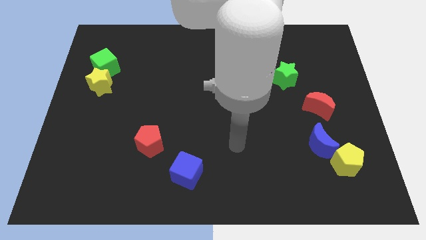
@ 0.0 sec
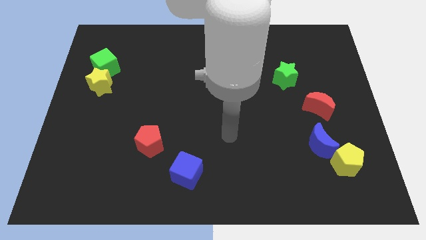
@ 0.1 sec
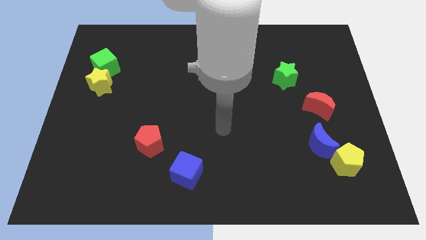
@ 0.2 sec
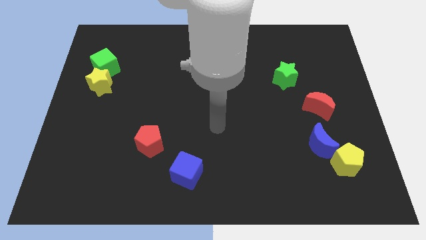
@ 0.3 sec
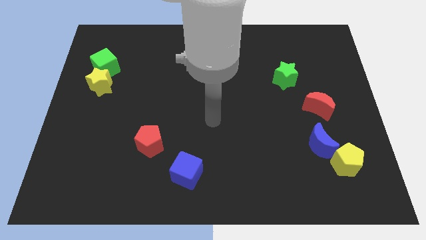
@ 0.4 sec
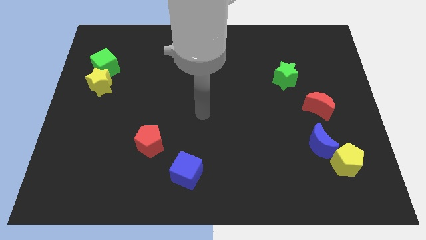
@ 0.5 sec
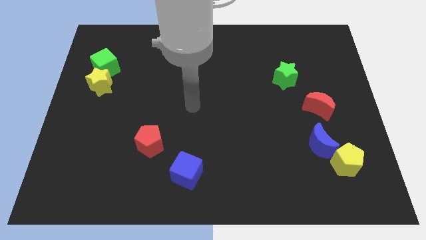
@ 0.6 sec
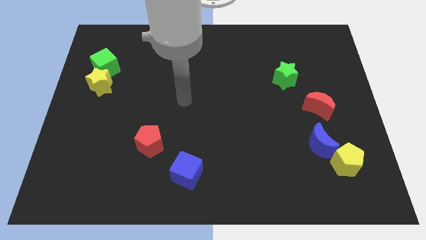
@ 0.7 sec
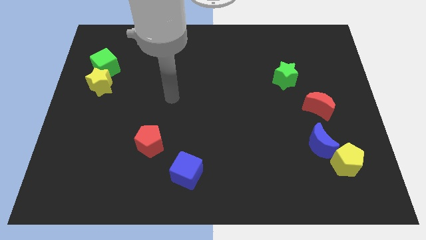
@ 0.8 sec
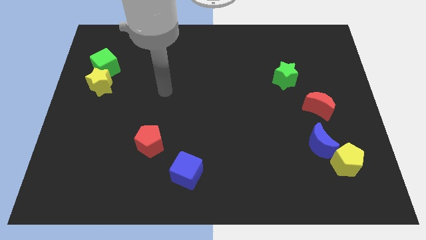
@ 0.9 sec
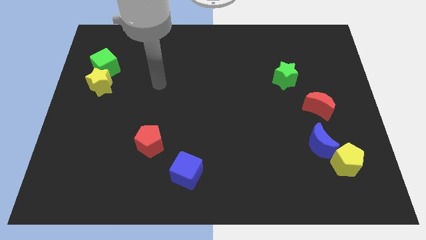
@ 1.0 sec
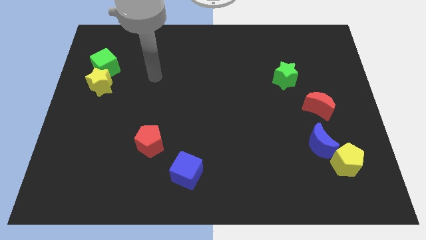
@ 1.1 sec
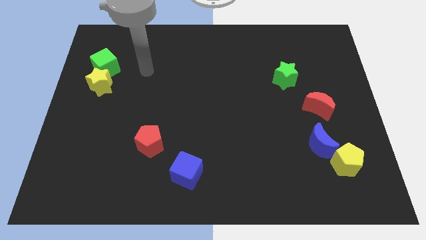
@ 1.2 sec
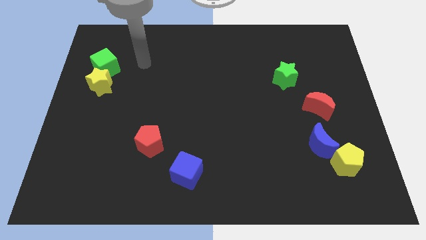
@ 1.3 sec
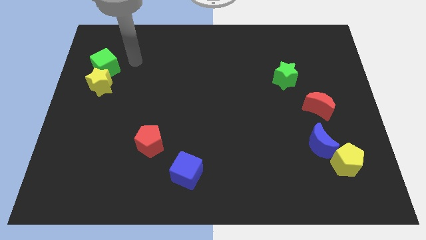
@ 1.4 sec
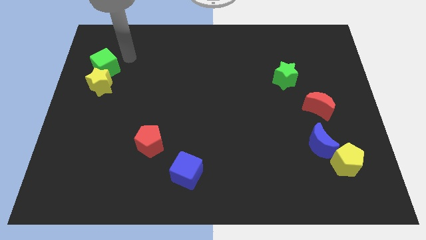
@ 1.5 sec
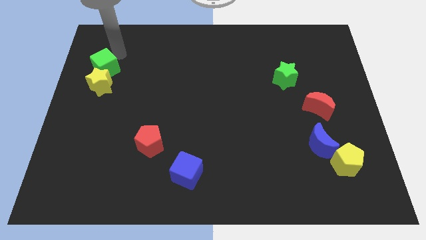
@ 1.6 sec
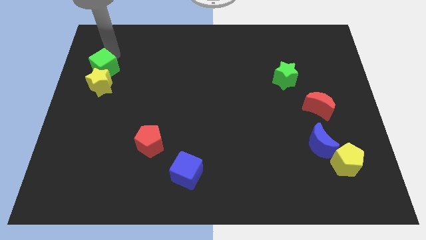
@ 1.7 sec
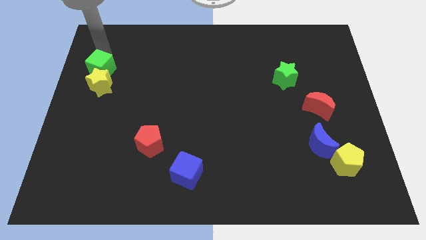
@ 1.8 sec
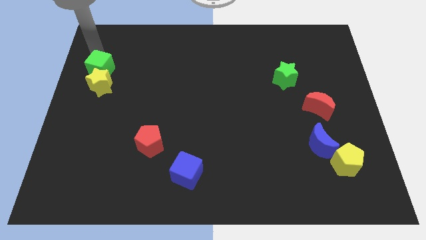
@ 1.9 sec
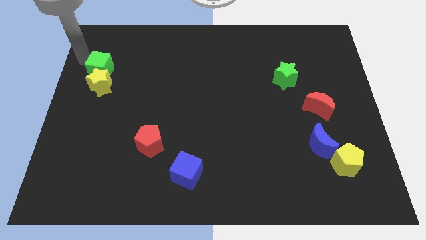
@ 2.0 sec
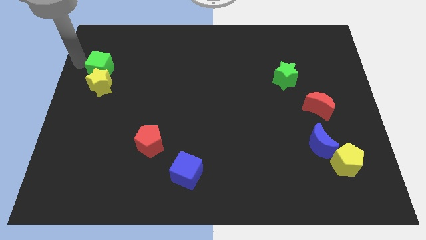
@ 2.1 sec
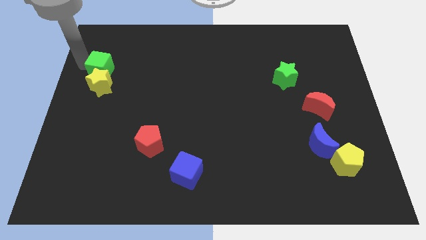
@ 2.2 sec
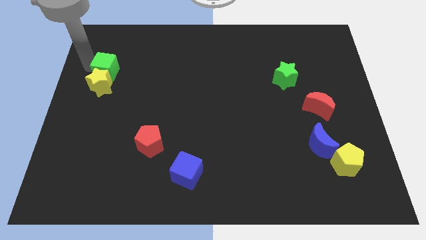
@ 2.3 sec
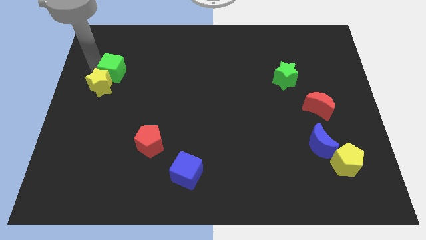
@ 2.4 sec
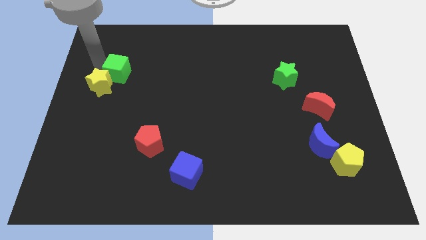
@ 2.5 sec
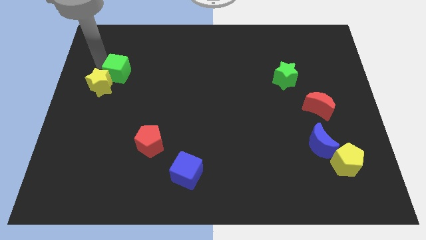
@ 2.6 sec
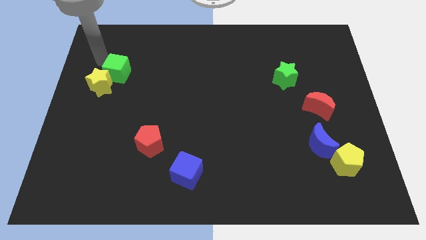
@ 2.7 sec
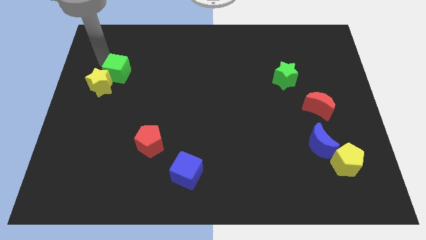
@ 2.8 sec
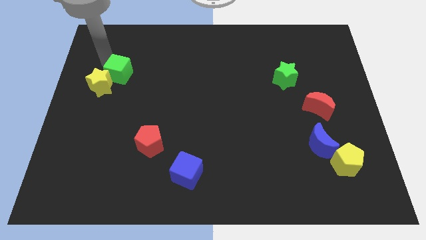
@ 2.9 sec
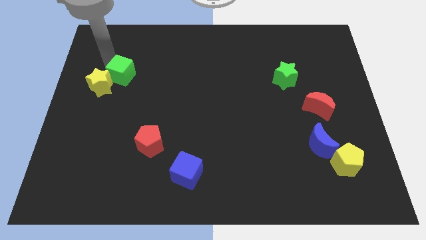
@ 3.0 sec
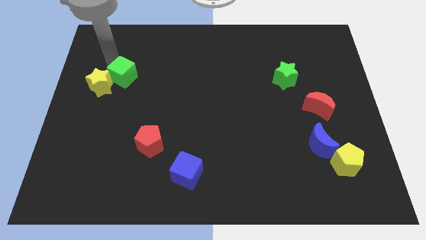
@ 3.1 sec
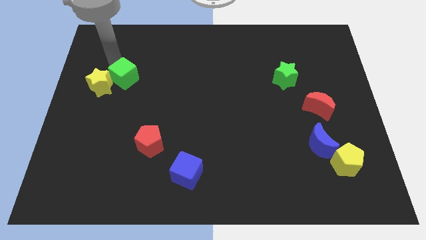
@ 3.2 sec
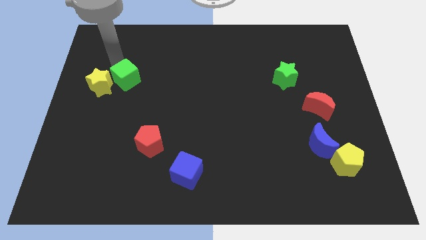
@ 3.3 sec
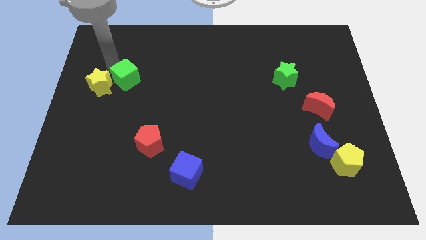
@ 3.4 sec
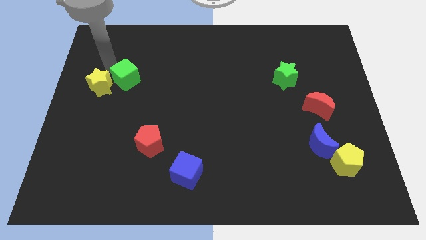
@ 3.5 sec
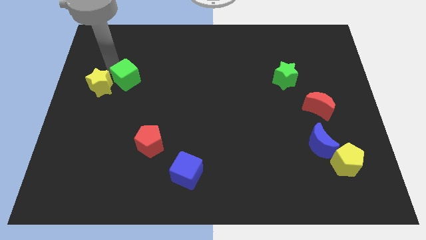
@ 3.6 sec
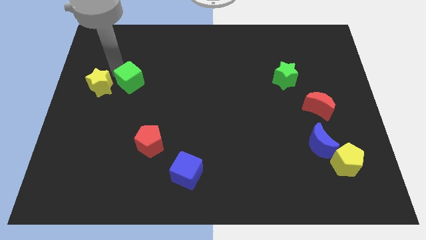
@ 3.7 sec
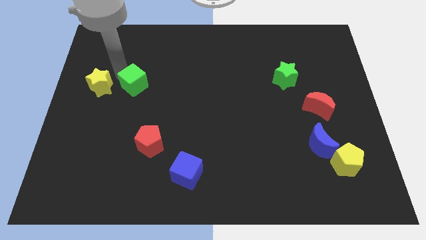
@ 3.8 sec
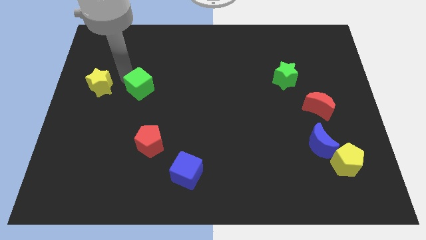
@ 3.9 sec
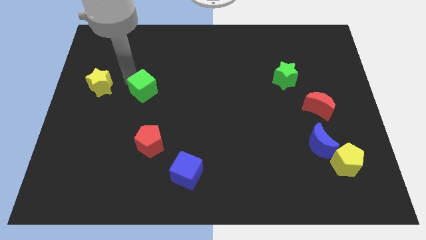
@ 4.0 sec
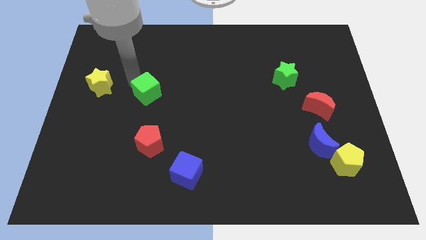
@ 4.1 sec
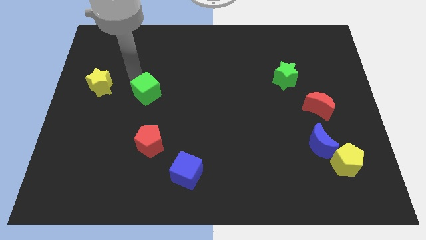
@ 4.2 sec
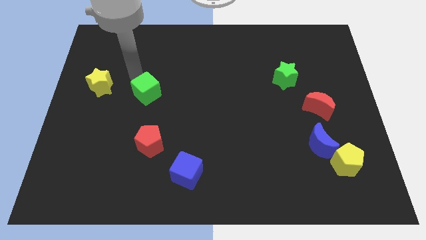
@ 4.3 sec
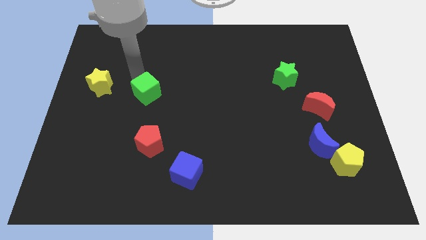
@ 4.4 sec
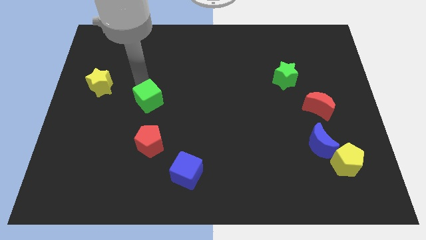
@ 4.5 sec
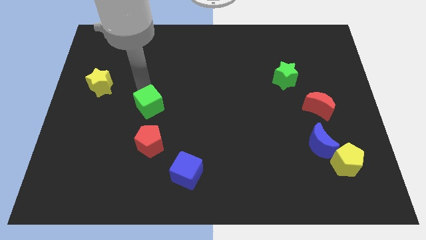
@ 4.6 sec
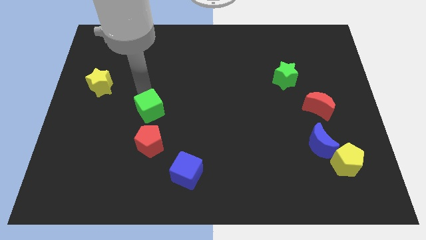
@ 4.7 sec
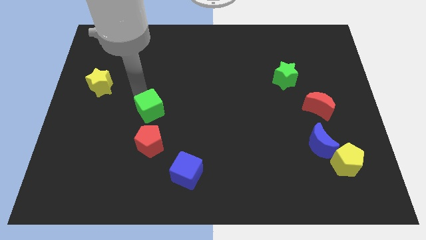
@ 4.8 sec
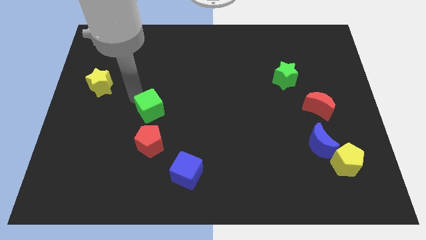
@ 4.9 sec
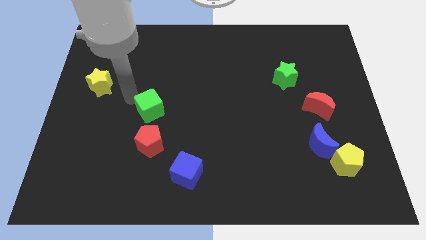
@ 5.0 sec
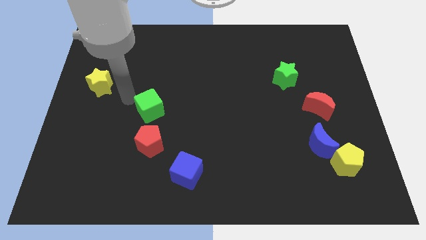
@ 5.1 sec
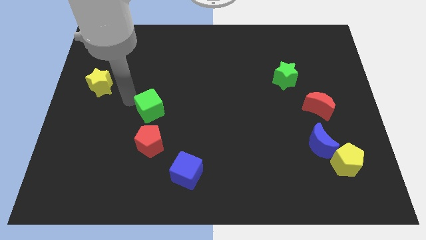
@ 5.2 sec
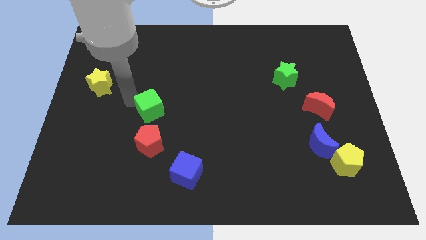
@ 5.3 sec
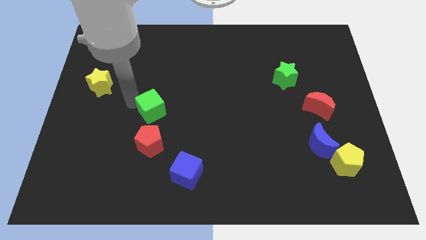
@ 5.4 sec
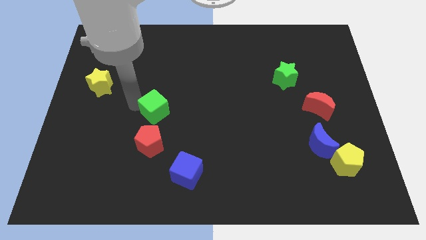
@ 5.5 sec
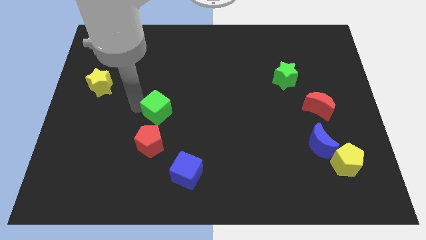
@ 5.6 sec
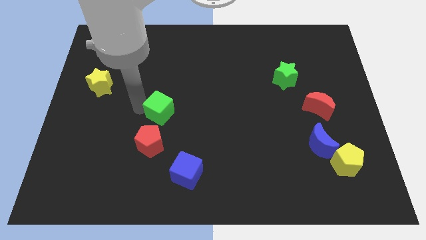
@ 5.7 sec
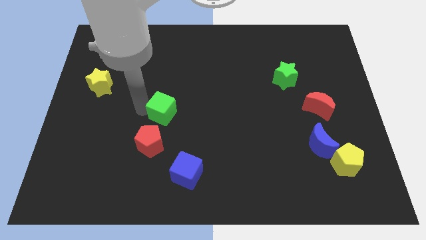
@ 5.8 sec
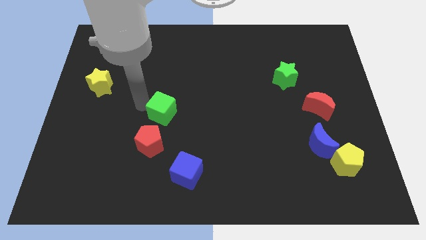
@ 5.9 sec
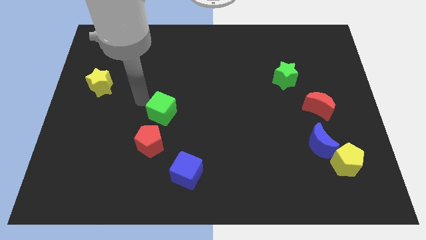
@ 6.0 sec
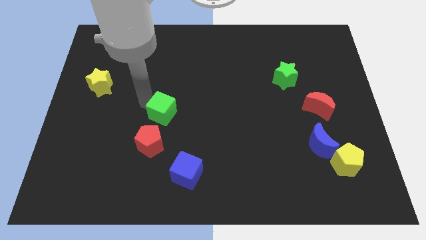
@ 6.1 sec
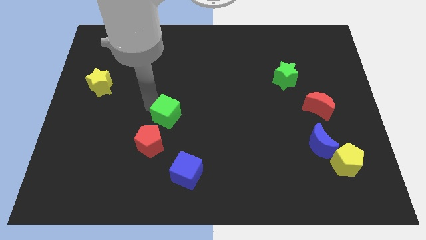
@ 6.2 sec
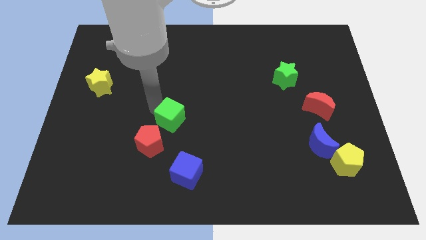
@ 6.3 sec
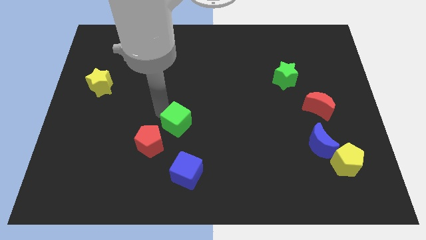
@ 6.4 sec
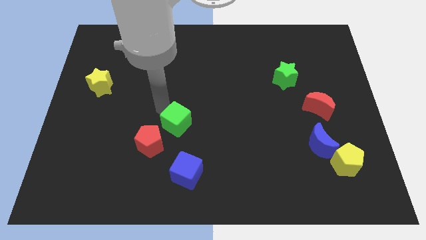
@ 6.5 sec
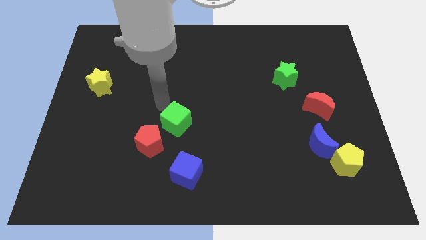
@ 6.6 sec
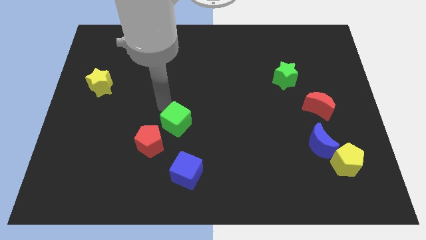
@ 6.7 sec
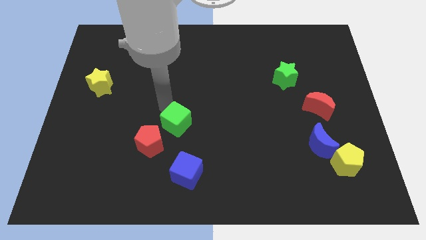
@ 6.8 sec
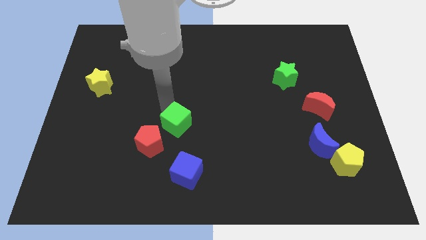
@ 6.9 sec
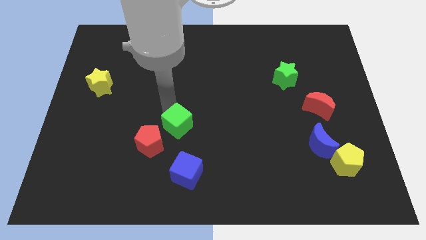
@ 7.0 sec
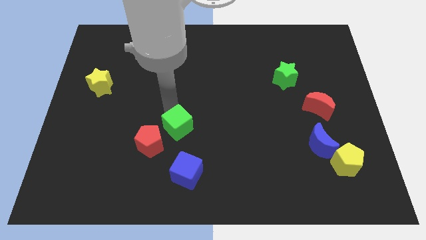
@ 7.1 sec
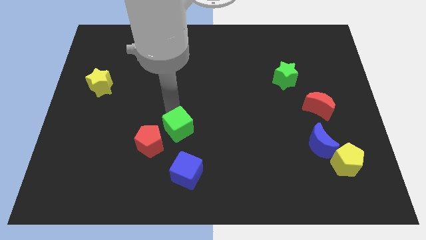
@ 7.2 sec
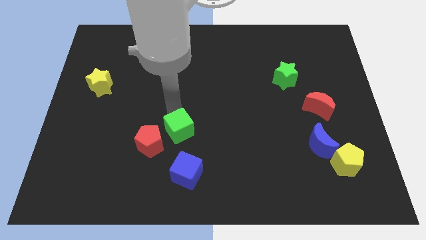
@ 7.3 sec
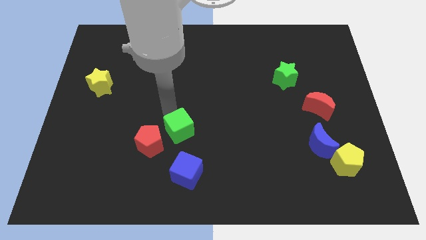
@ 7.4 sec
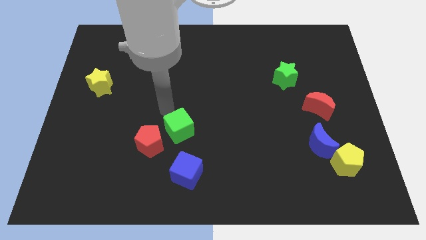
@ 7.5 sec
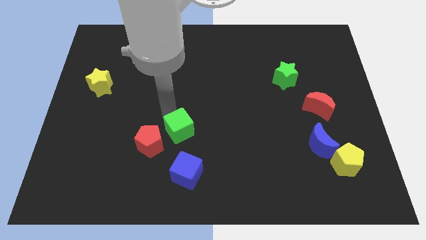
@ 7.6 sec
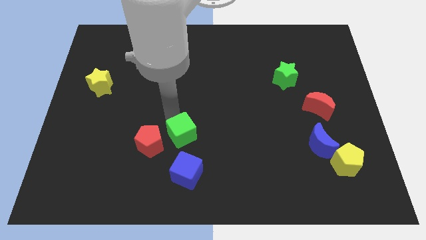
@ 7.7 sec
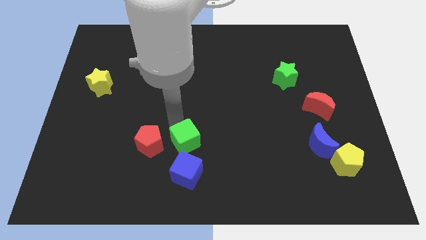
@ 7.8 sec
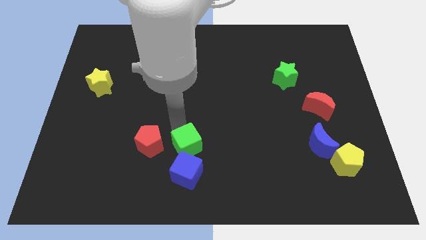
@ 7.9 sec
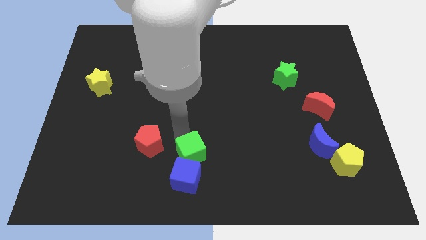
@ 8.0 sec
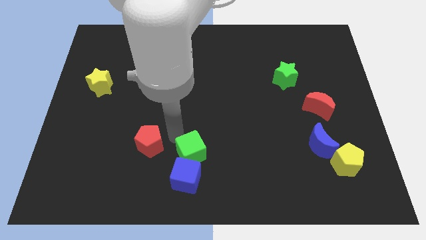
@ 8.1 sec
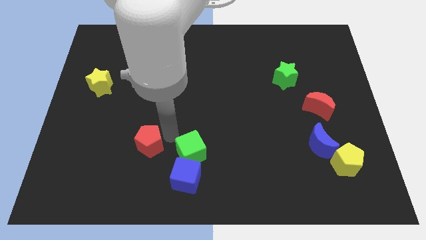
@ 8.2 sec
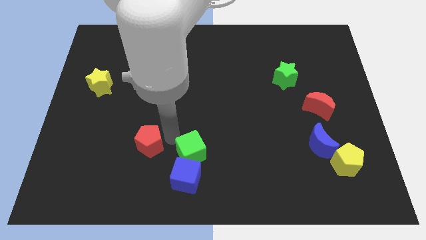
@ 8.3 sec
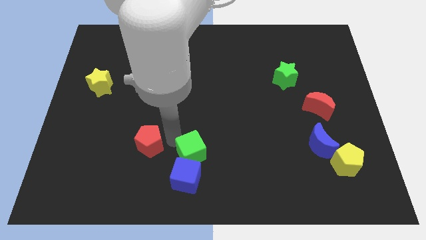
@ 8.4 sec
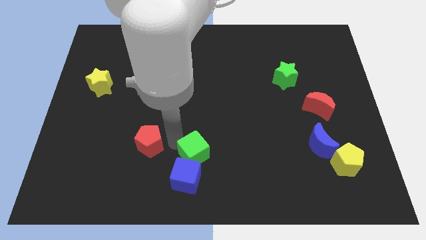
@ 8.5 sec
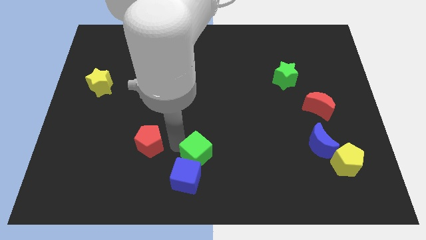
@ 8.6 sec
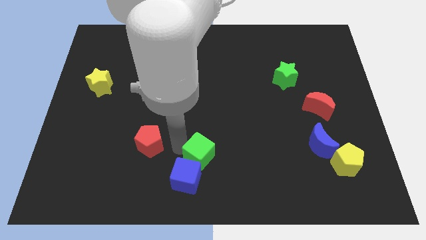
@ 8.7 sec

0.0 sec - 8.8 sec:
push the green cube to the bottom
